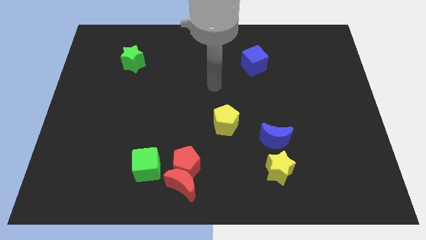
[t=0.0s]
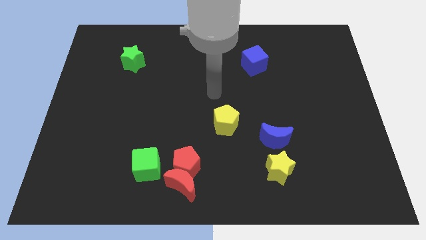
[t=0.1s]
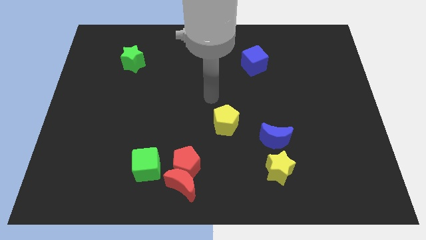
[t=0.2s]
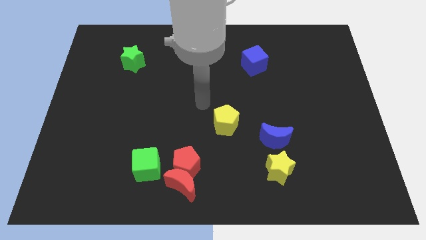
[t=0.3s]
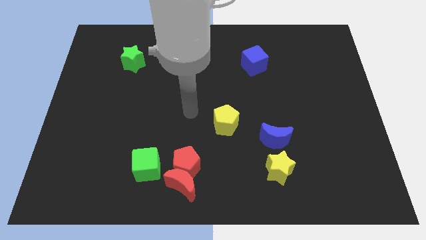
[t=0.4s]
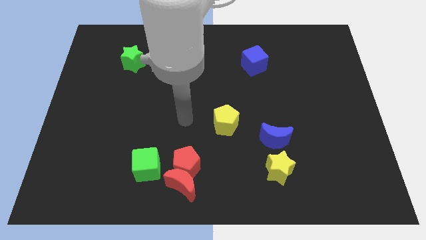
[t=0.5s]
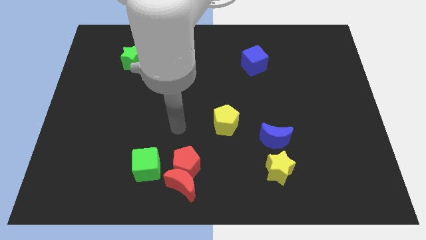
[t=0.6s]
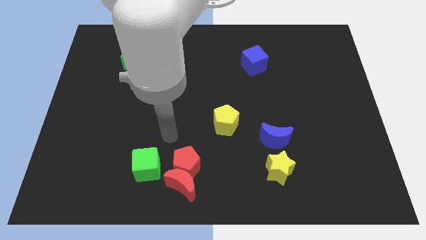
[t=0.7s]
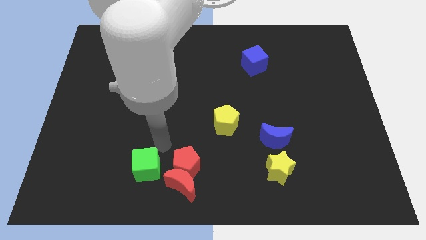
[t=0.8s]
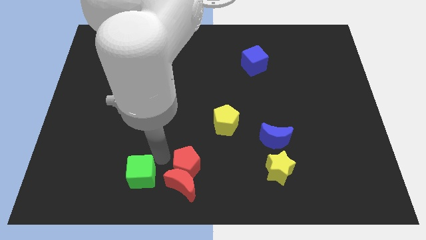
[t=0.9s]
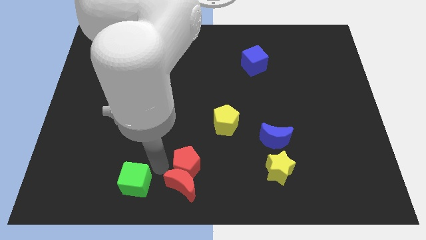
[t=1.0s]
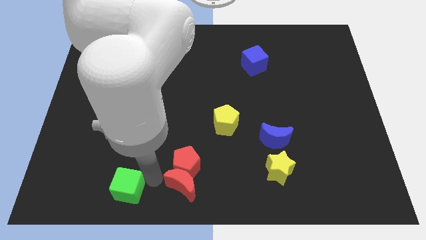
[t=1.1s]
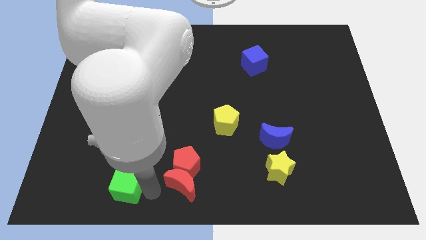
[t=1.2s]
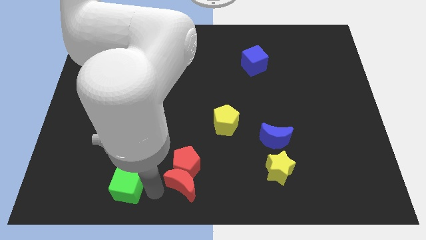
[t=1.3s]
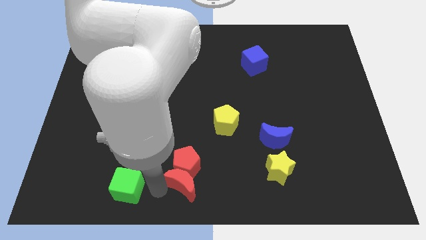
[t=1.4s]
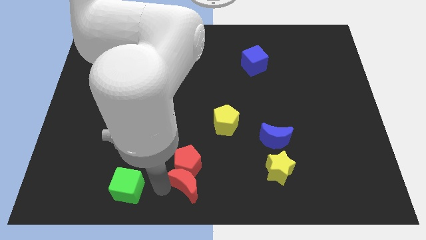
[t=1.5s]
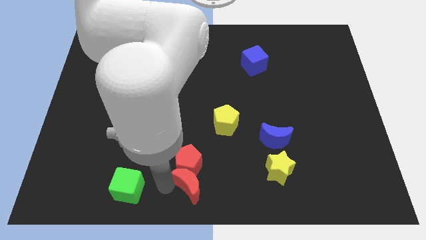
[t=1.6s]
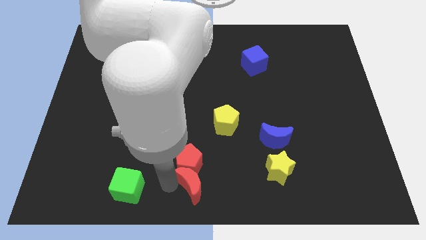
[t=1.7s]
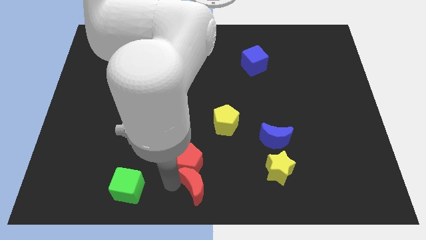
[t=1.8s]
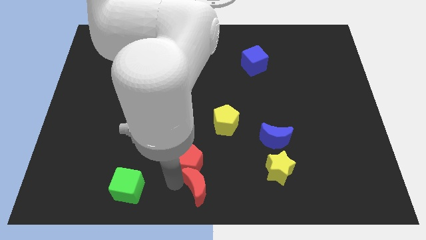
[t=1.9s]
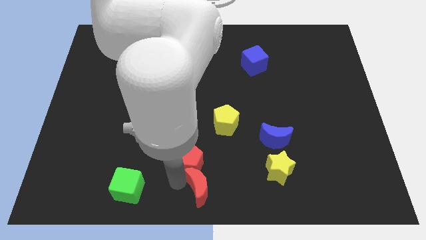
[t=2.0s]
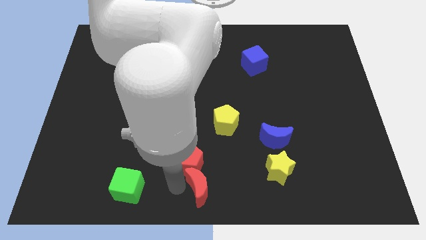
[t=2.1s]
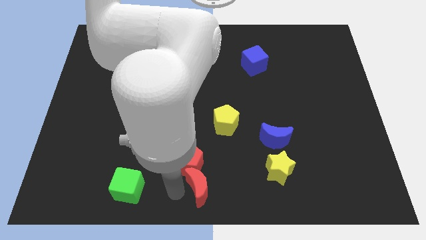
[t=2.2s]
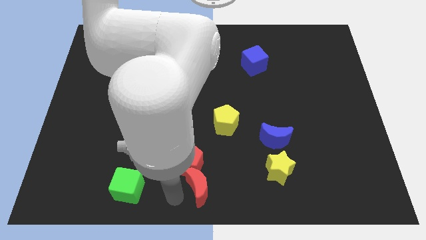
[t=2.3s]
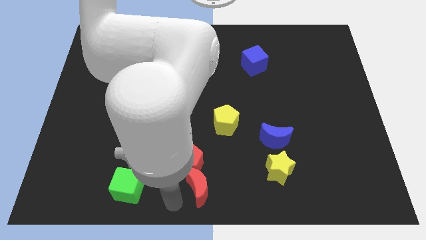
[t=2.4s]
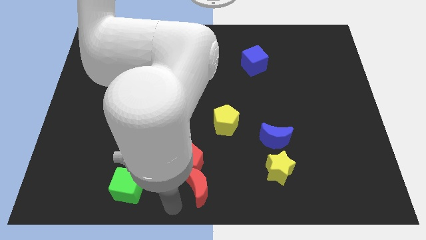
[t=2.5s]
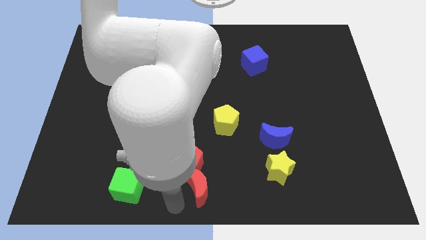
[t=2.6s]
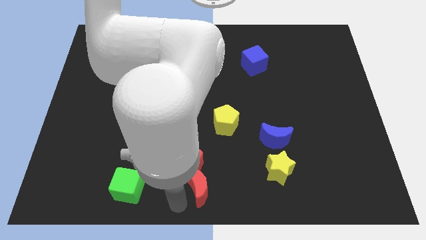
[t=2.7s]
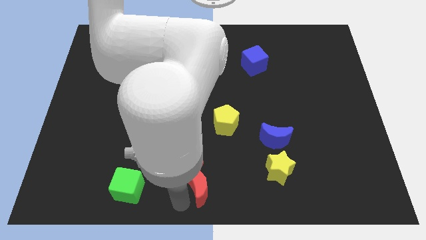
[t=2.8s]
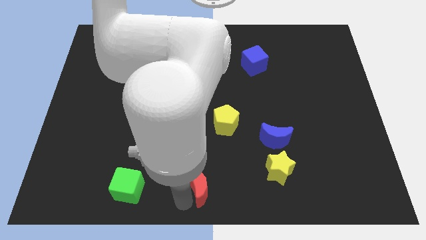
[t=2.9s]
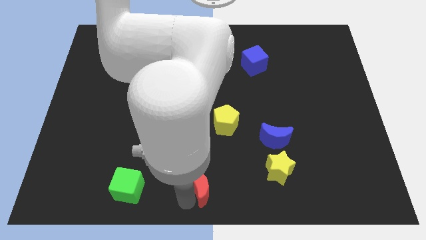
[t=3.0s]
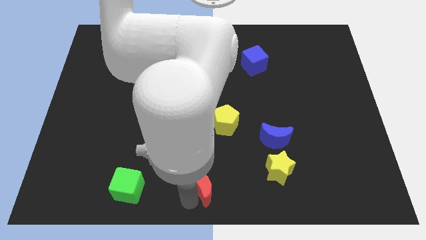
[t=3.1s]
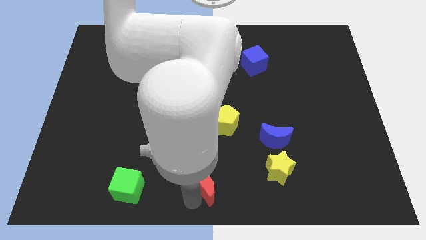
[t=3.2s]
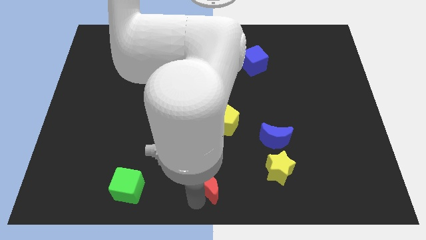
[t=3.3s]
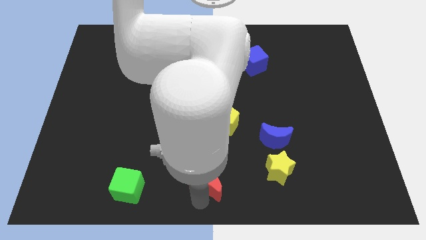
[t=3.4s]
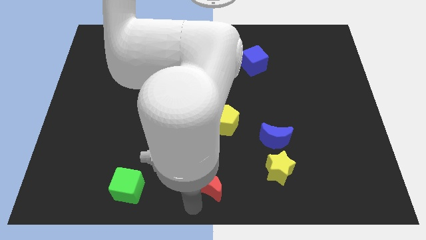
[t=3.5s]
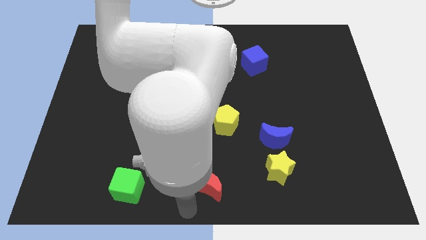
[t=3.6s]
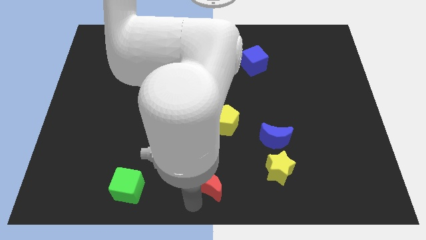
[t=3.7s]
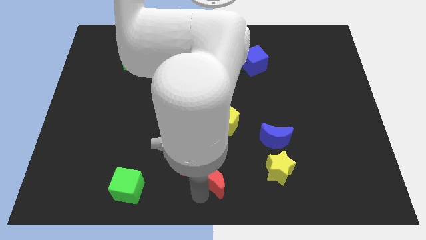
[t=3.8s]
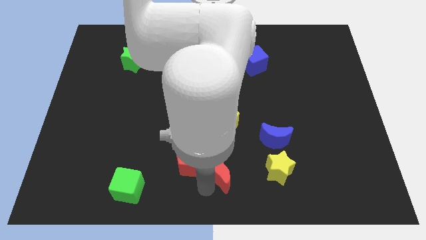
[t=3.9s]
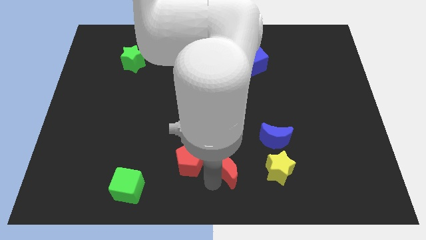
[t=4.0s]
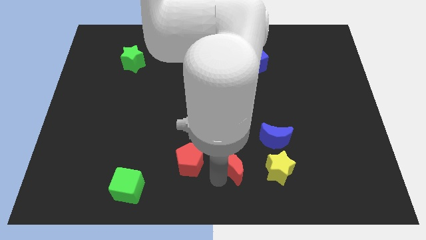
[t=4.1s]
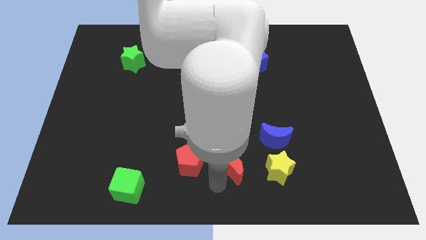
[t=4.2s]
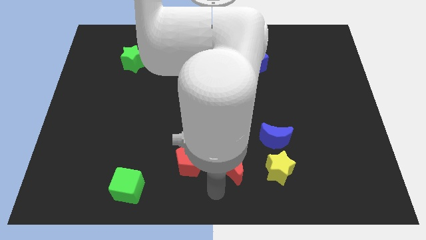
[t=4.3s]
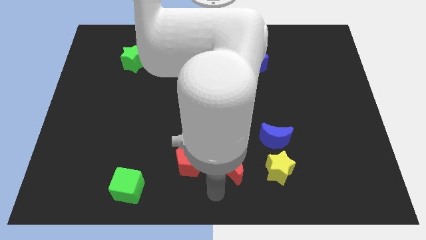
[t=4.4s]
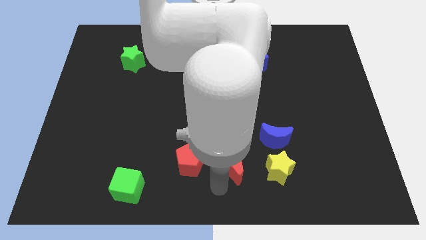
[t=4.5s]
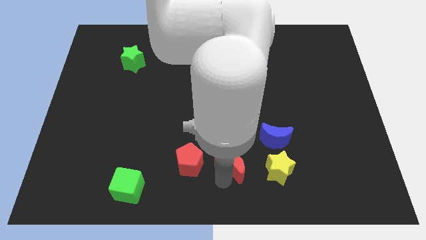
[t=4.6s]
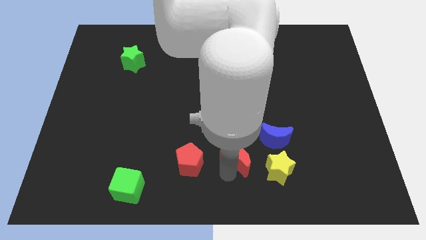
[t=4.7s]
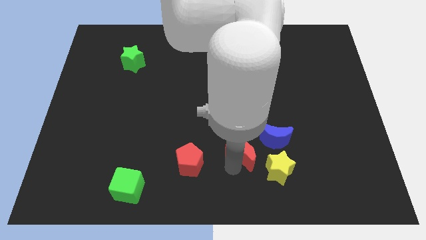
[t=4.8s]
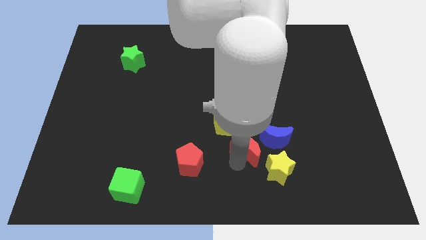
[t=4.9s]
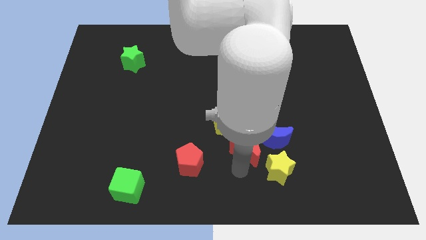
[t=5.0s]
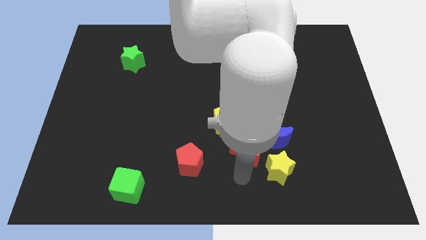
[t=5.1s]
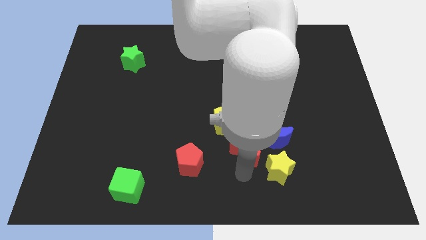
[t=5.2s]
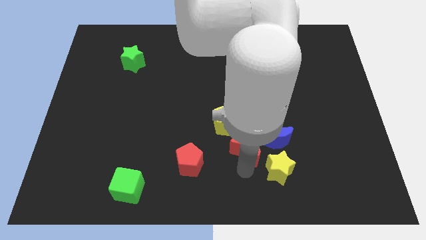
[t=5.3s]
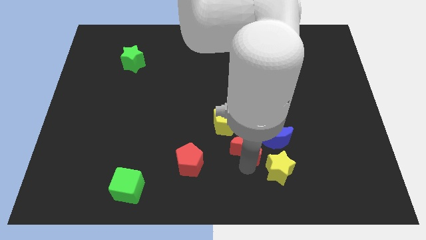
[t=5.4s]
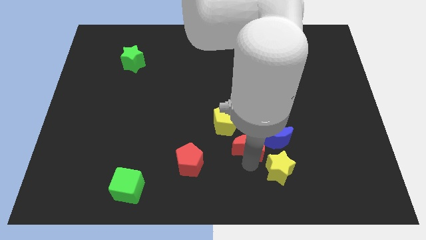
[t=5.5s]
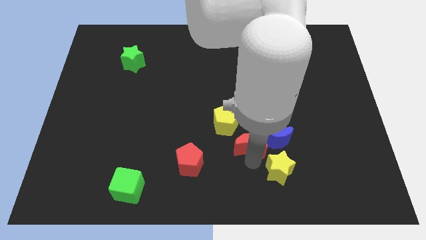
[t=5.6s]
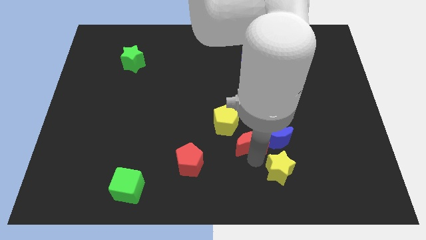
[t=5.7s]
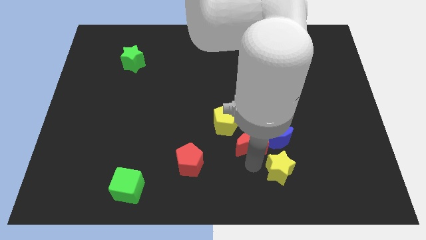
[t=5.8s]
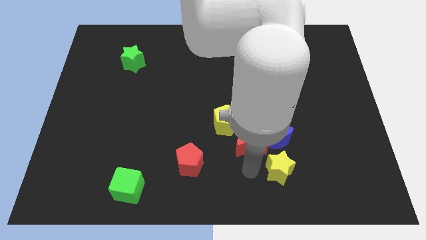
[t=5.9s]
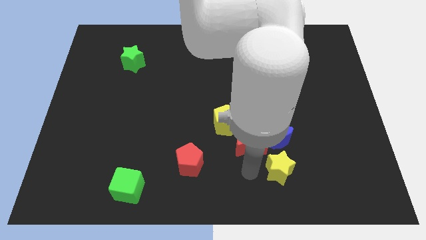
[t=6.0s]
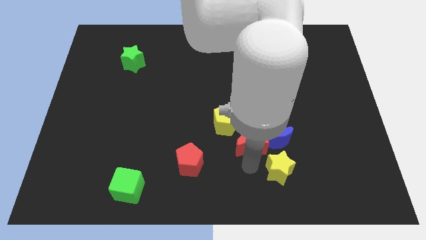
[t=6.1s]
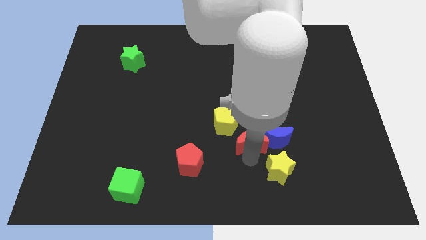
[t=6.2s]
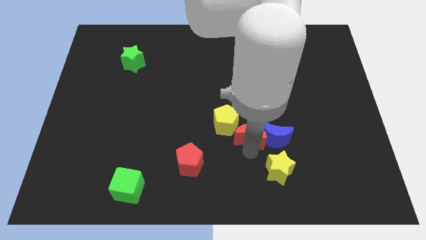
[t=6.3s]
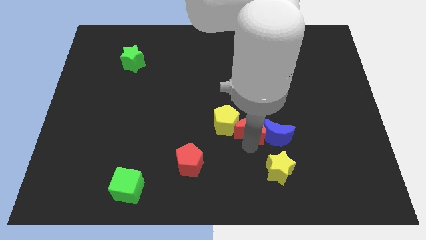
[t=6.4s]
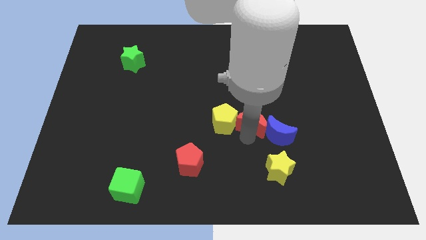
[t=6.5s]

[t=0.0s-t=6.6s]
push the red moon up and then right

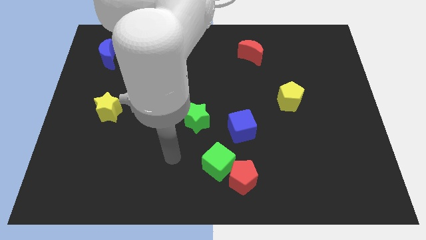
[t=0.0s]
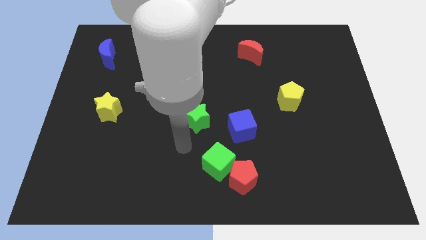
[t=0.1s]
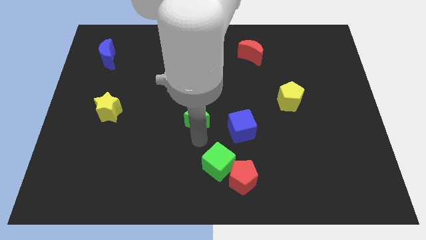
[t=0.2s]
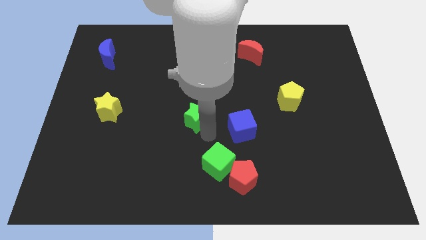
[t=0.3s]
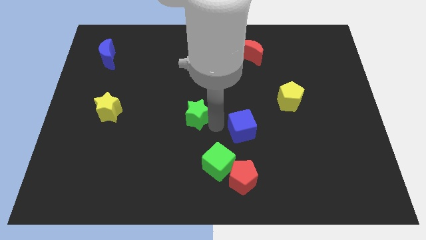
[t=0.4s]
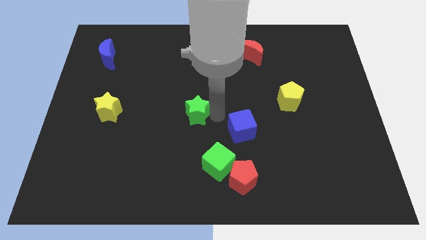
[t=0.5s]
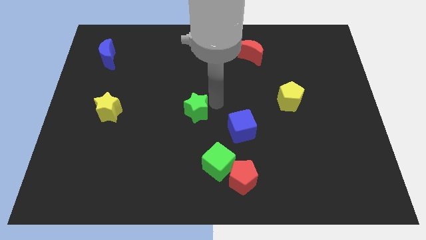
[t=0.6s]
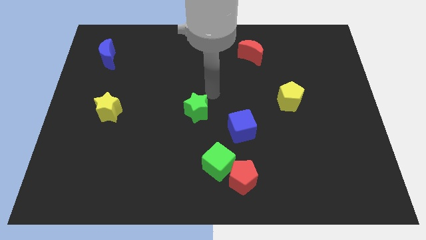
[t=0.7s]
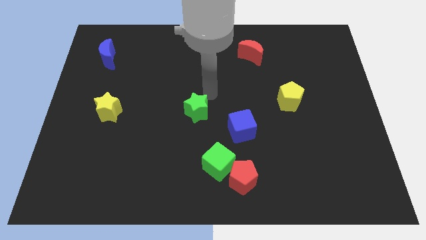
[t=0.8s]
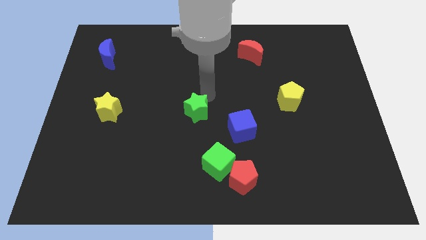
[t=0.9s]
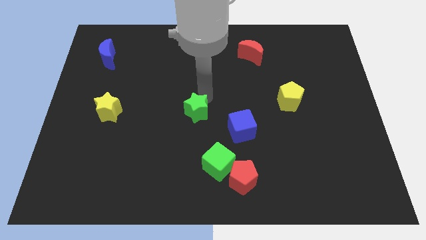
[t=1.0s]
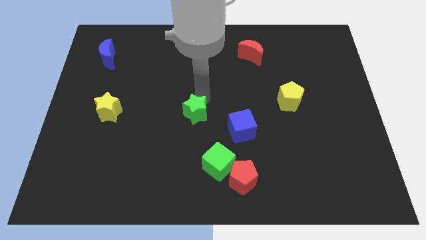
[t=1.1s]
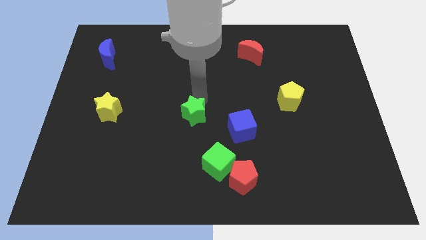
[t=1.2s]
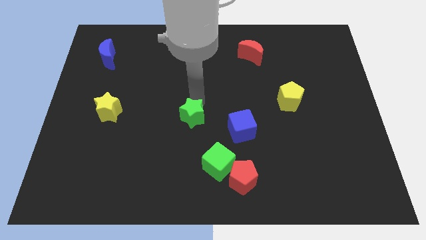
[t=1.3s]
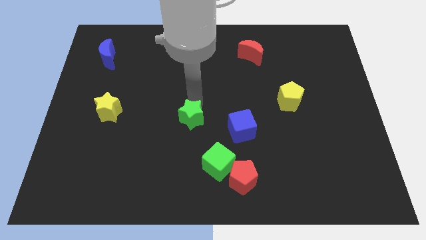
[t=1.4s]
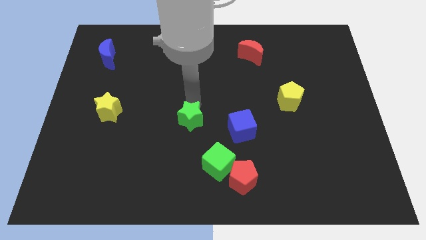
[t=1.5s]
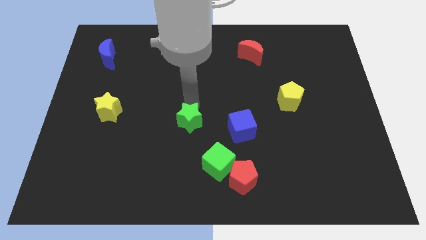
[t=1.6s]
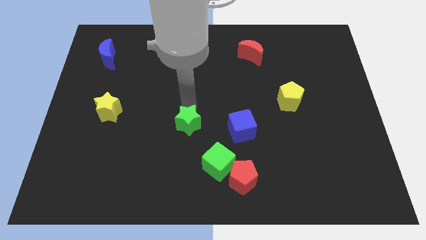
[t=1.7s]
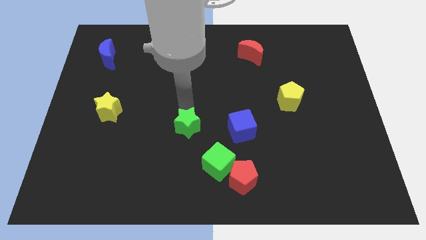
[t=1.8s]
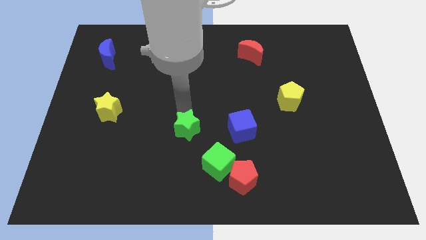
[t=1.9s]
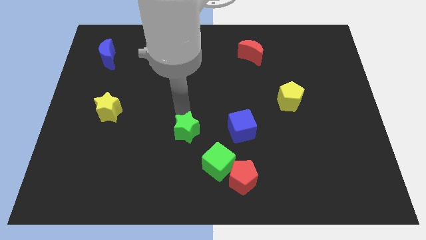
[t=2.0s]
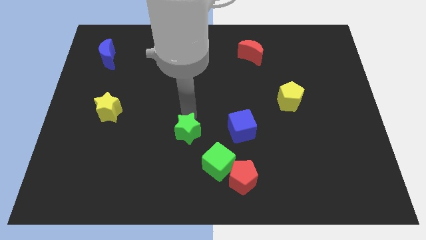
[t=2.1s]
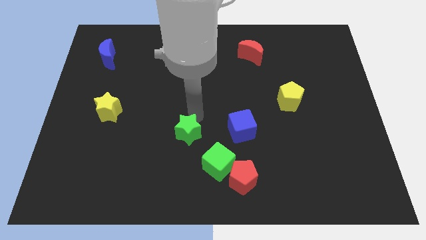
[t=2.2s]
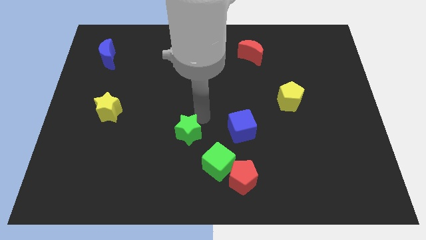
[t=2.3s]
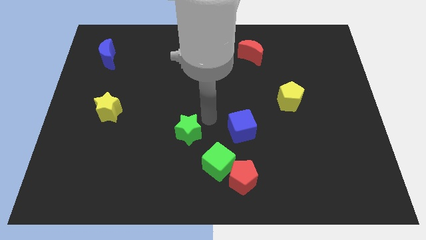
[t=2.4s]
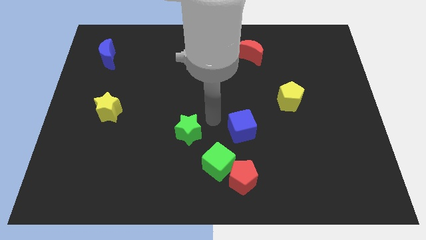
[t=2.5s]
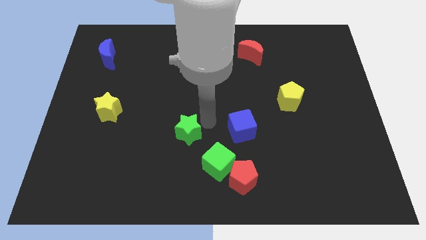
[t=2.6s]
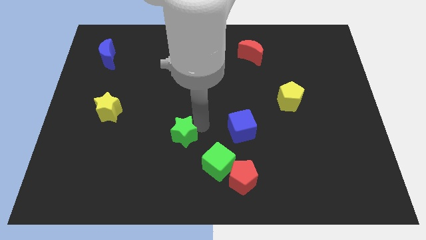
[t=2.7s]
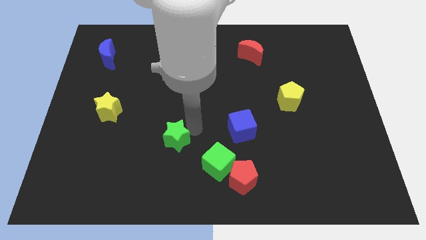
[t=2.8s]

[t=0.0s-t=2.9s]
slightly move the green star downwards and left diagonally
